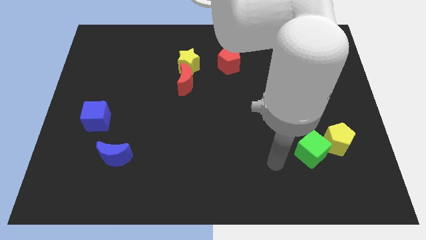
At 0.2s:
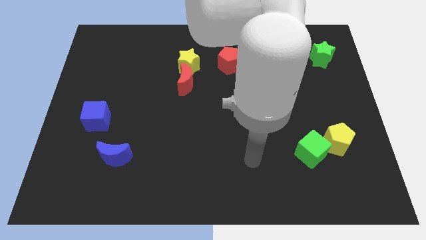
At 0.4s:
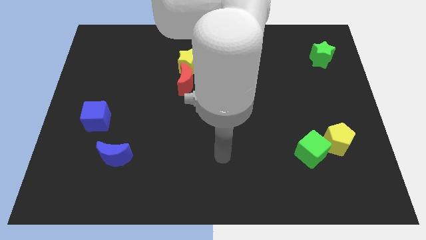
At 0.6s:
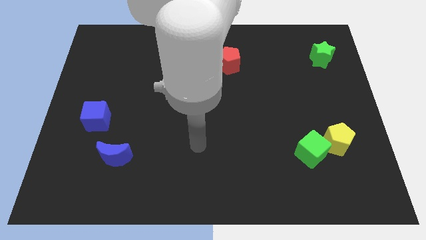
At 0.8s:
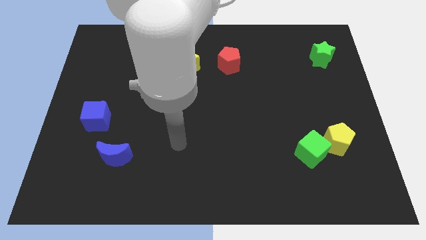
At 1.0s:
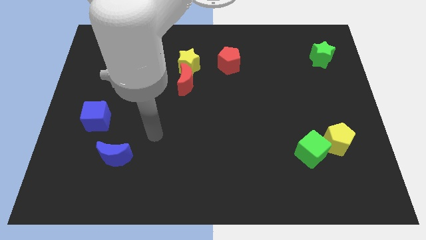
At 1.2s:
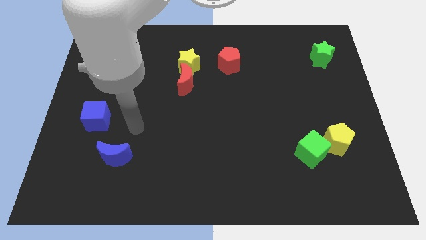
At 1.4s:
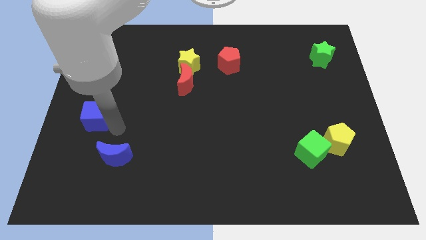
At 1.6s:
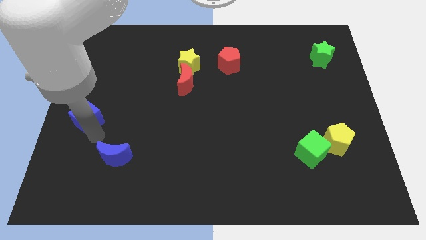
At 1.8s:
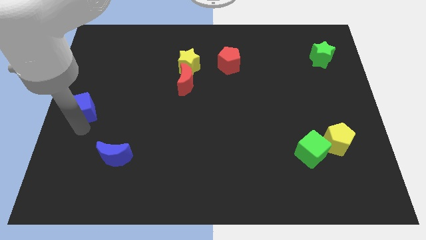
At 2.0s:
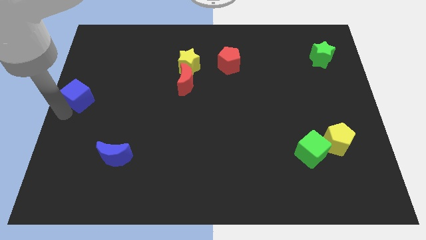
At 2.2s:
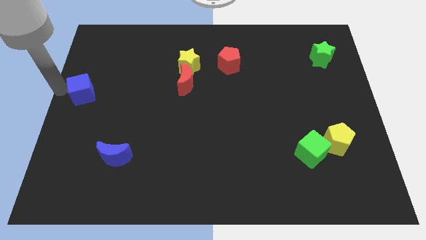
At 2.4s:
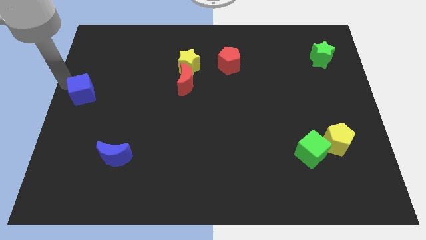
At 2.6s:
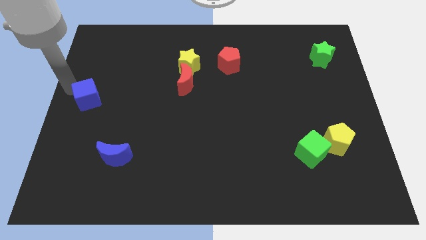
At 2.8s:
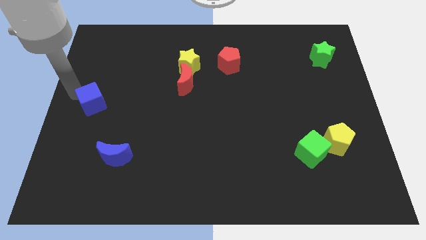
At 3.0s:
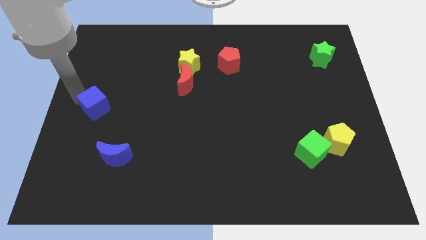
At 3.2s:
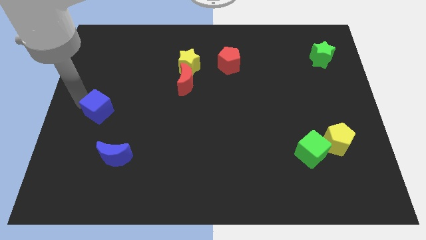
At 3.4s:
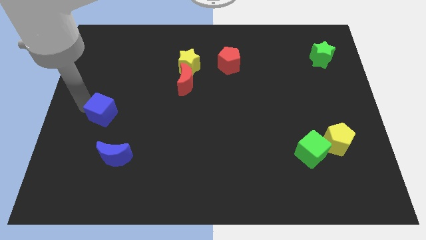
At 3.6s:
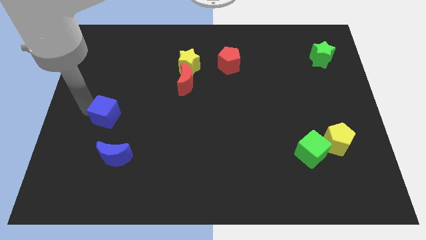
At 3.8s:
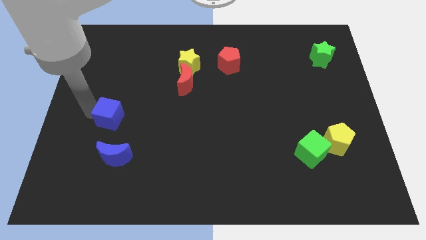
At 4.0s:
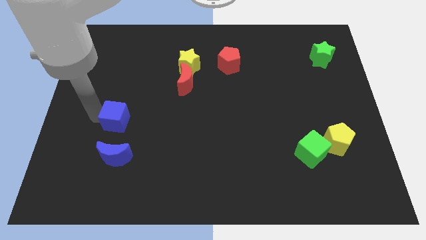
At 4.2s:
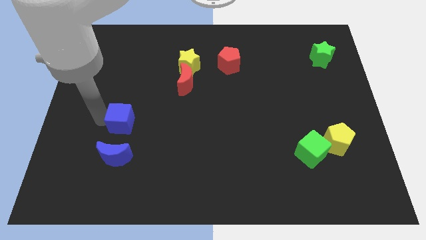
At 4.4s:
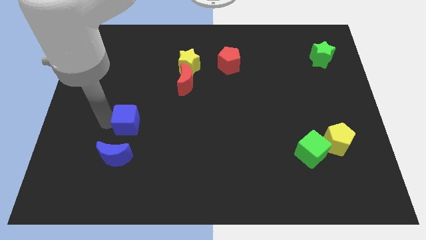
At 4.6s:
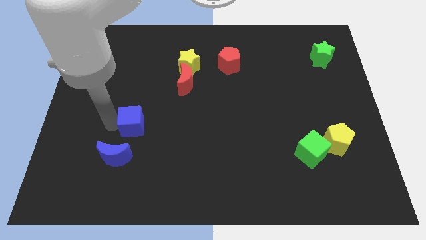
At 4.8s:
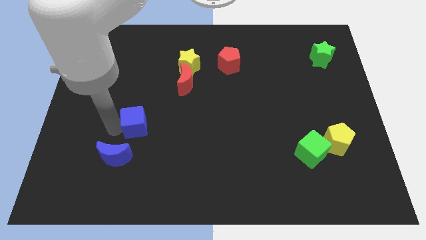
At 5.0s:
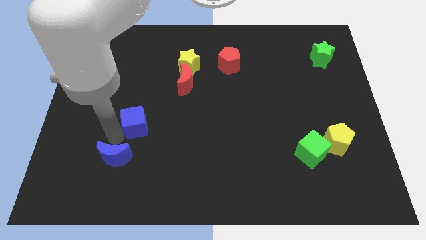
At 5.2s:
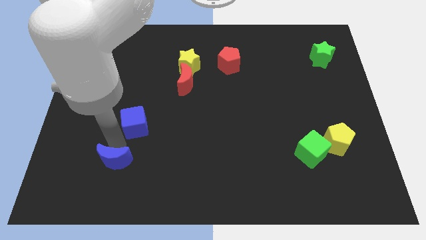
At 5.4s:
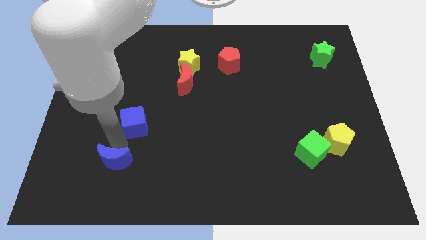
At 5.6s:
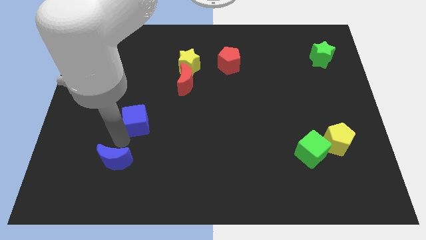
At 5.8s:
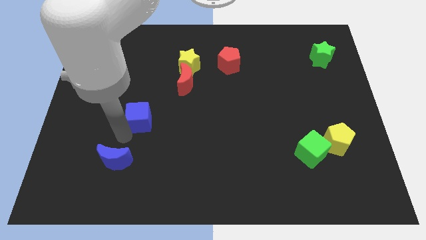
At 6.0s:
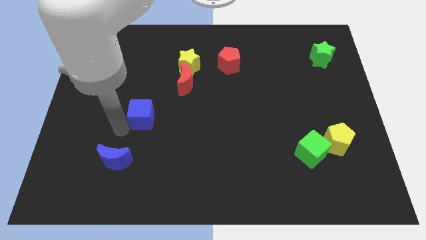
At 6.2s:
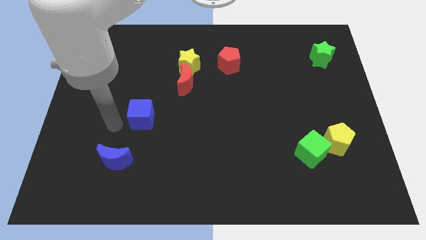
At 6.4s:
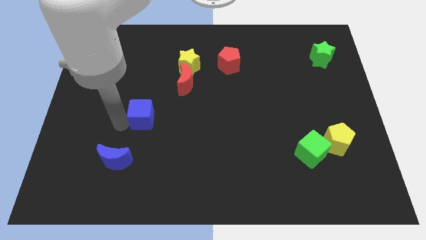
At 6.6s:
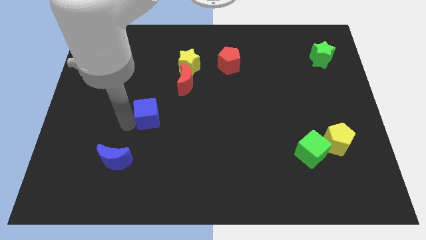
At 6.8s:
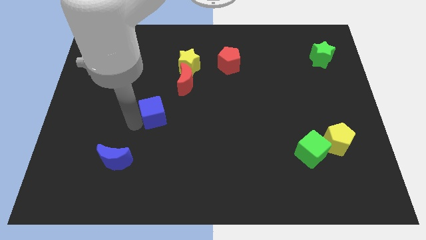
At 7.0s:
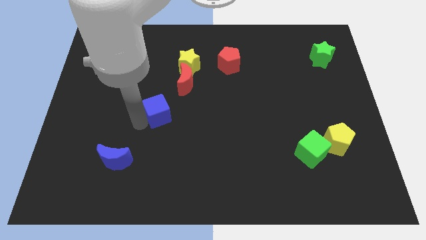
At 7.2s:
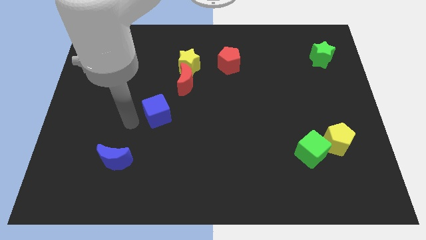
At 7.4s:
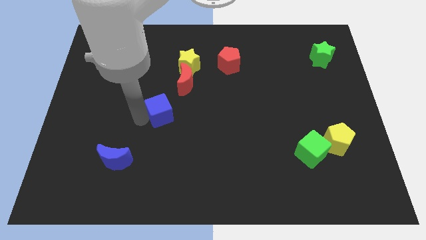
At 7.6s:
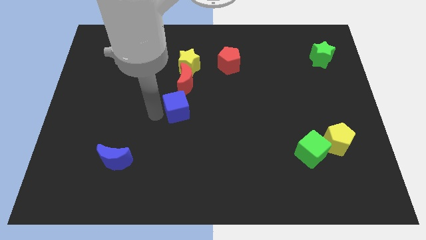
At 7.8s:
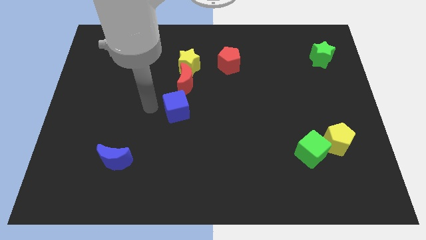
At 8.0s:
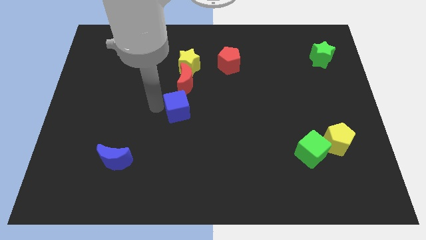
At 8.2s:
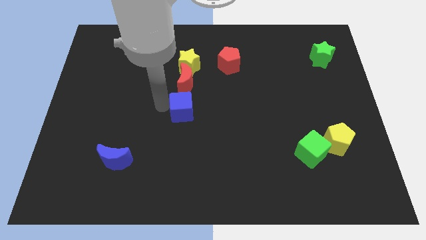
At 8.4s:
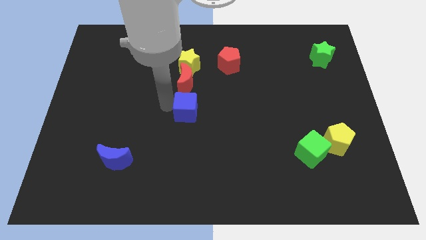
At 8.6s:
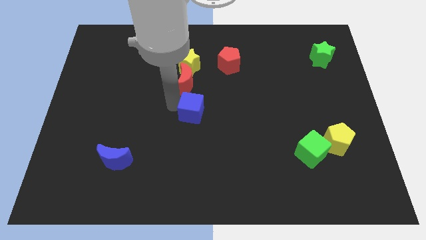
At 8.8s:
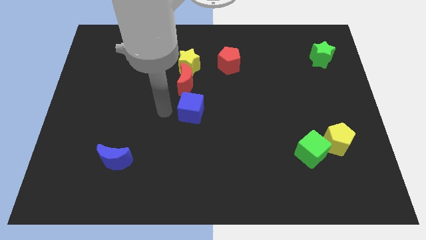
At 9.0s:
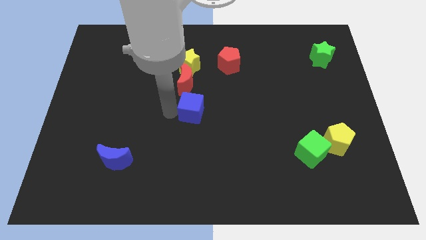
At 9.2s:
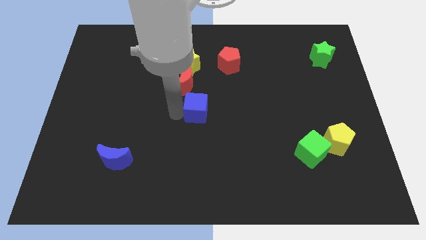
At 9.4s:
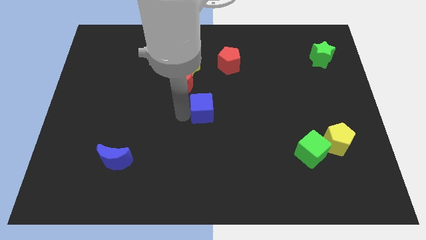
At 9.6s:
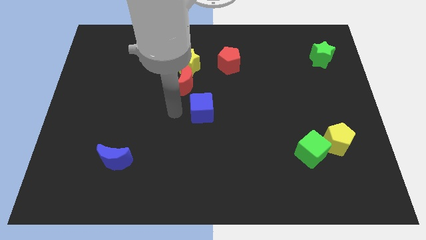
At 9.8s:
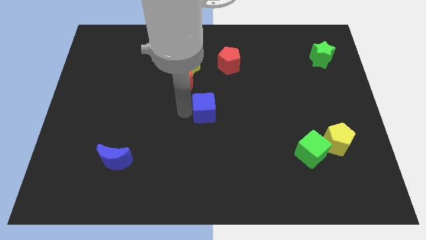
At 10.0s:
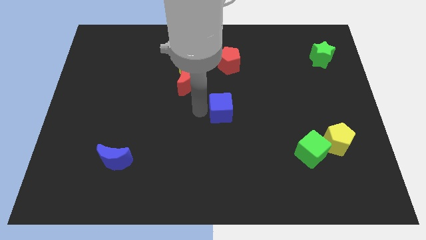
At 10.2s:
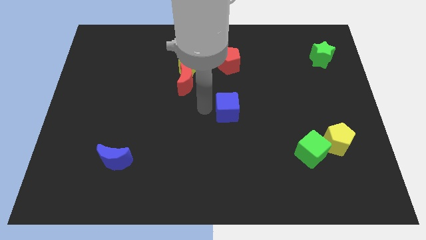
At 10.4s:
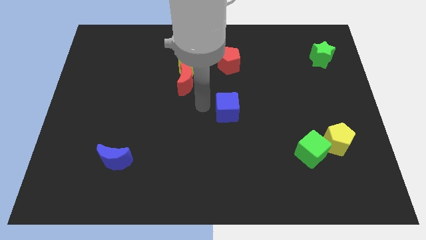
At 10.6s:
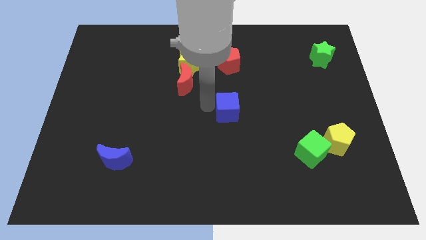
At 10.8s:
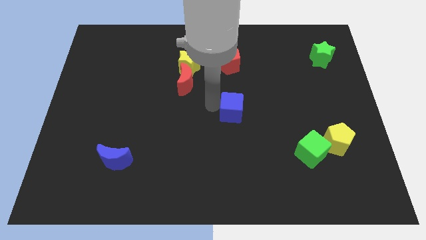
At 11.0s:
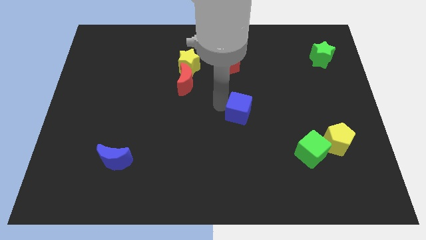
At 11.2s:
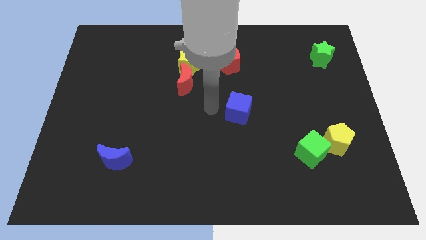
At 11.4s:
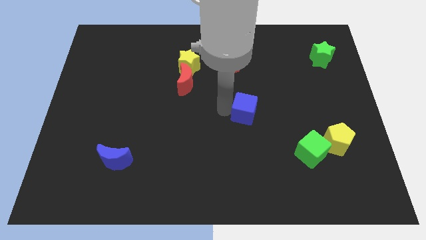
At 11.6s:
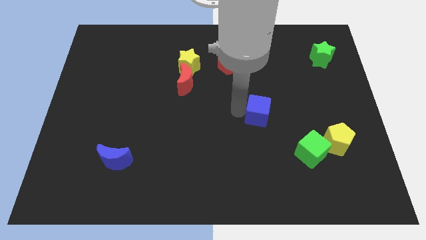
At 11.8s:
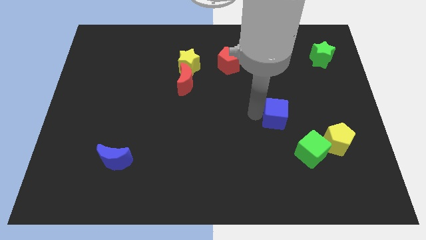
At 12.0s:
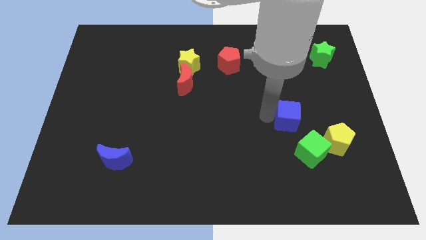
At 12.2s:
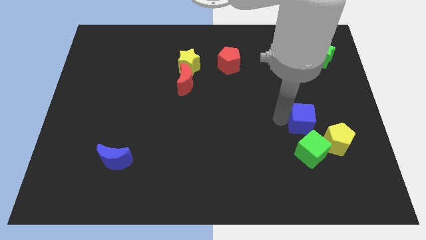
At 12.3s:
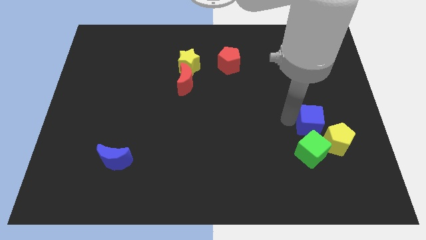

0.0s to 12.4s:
slide the blue cube to the top right side of the green cube

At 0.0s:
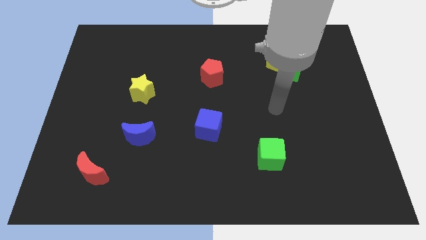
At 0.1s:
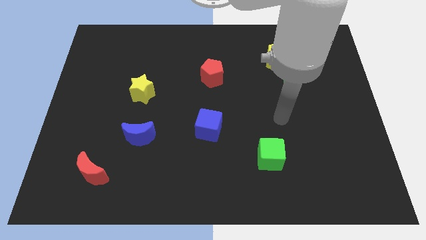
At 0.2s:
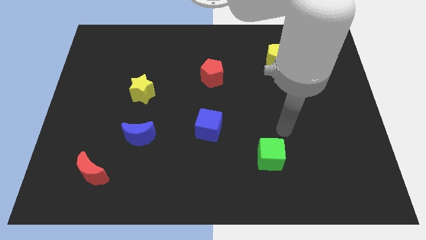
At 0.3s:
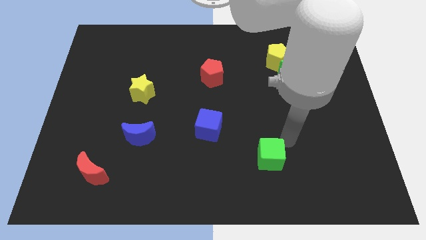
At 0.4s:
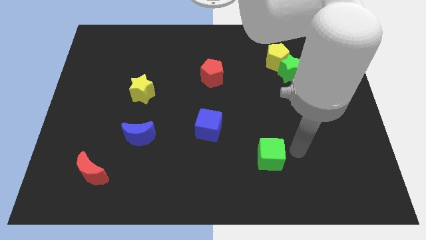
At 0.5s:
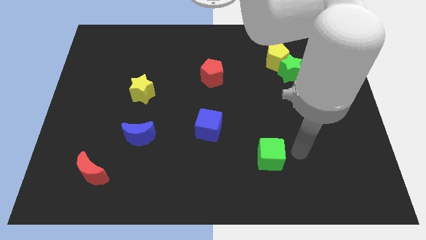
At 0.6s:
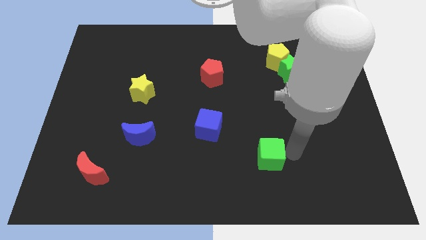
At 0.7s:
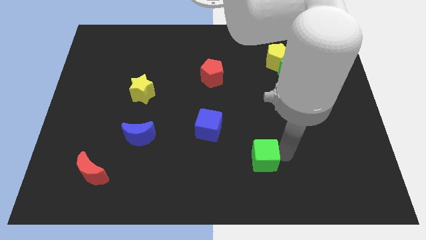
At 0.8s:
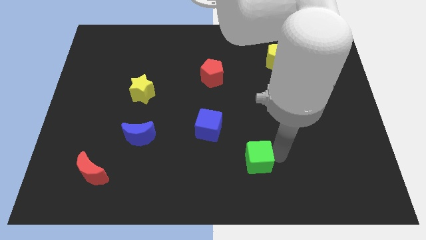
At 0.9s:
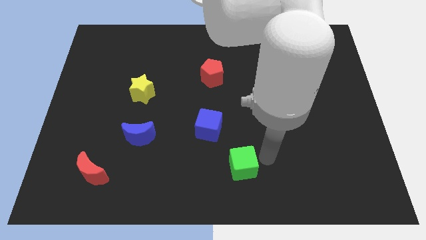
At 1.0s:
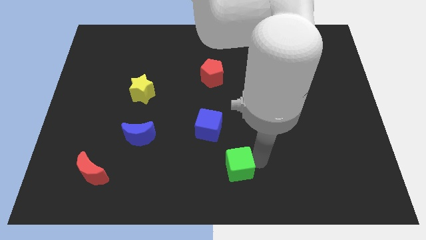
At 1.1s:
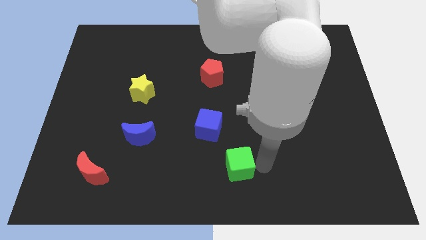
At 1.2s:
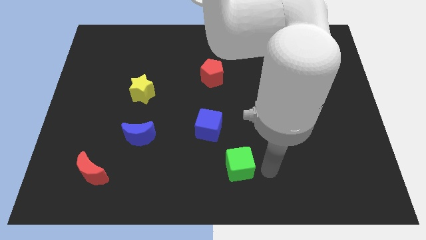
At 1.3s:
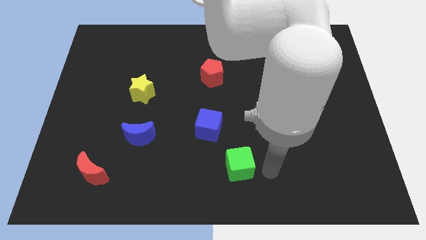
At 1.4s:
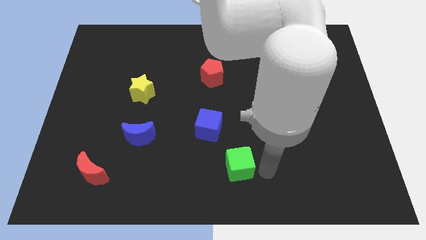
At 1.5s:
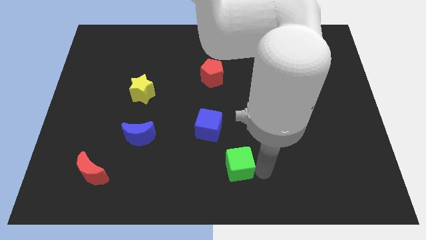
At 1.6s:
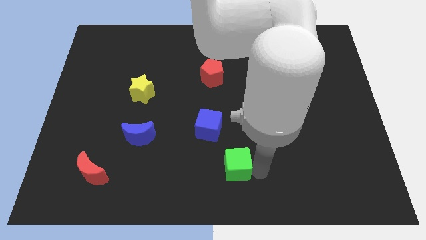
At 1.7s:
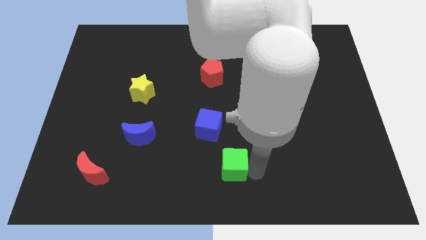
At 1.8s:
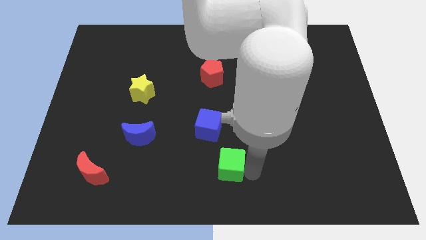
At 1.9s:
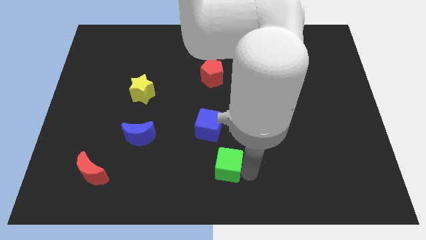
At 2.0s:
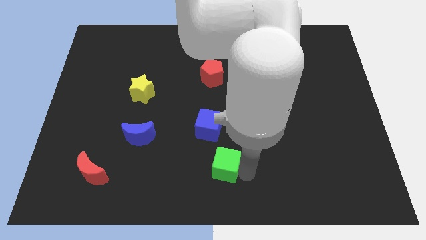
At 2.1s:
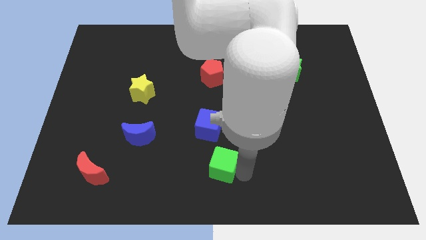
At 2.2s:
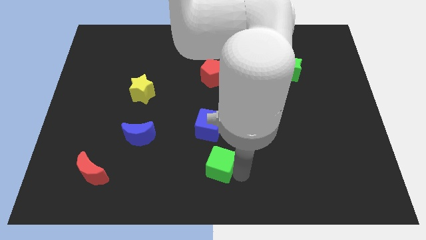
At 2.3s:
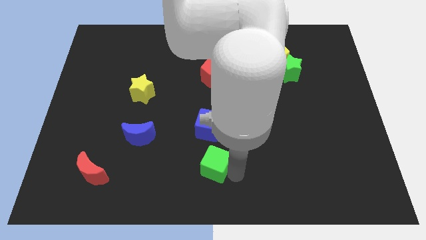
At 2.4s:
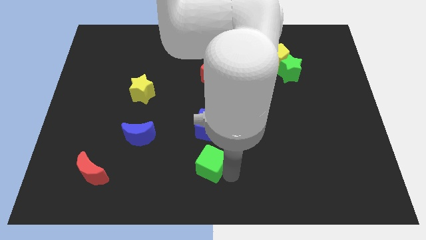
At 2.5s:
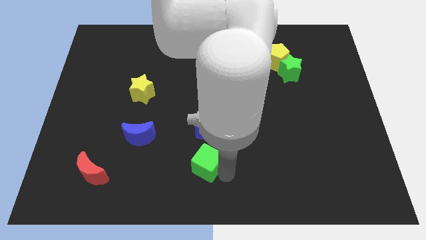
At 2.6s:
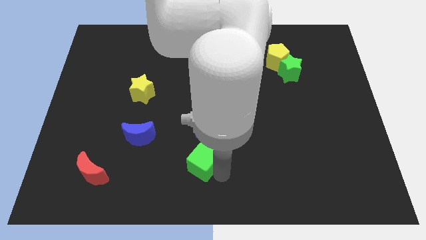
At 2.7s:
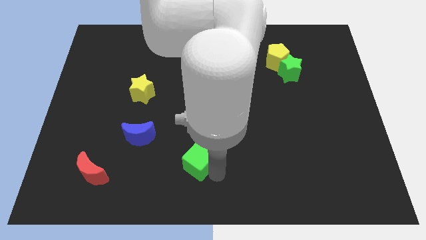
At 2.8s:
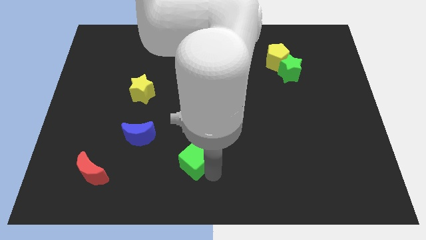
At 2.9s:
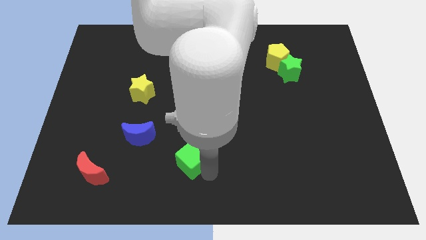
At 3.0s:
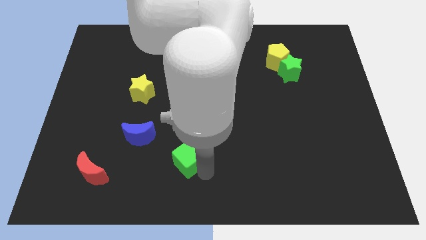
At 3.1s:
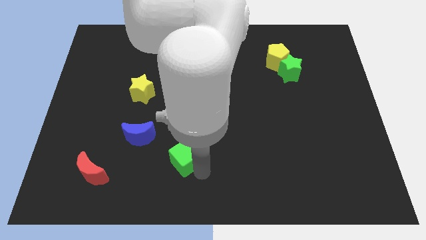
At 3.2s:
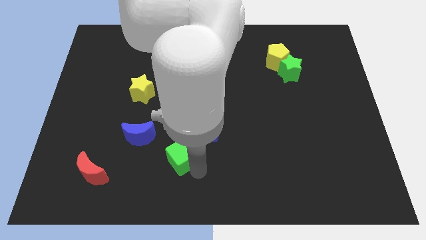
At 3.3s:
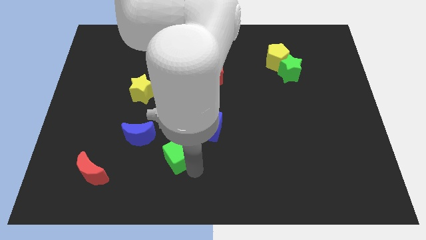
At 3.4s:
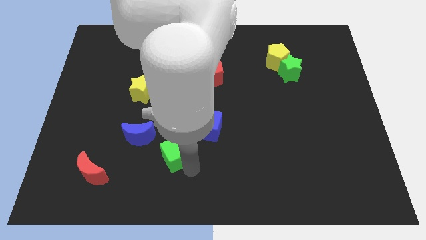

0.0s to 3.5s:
slide the green cube just right of the blue moon
